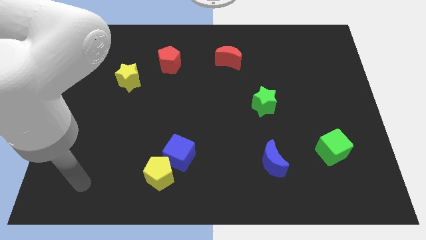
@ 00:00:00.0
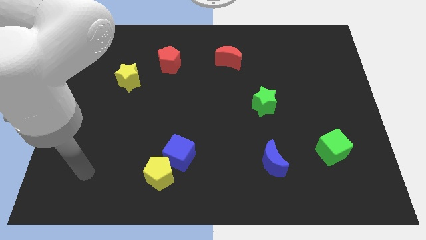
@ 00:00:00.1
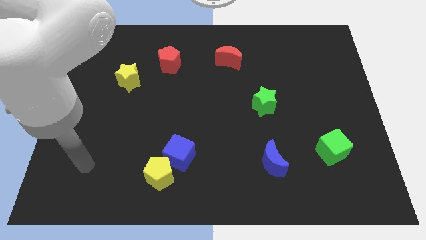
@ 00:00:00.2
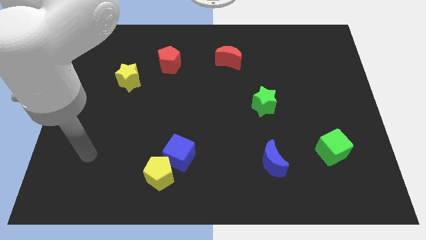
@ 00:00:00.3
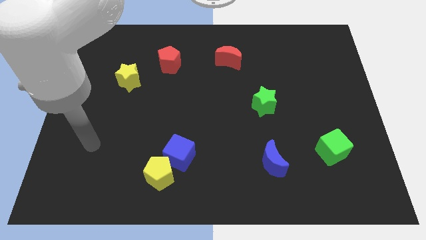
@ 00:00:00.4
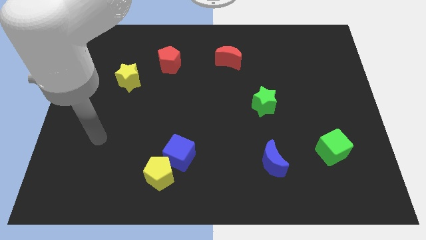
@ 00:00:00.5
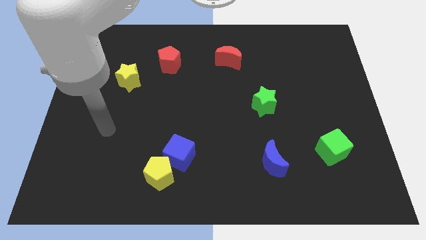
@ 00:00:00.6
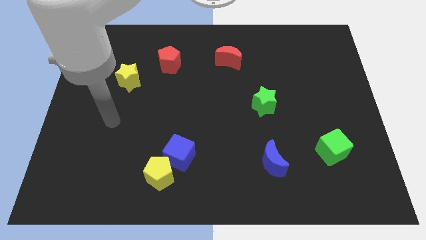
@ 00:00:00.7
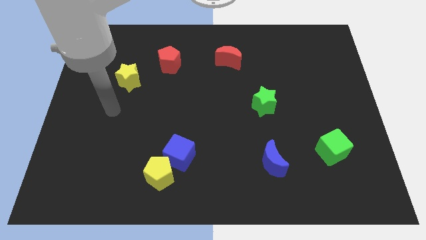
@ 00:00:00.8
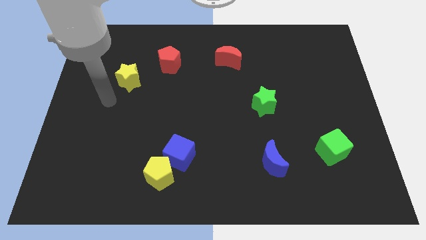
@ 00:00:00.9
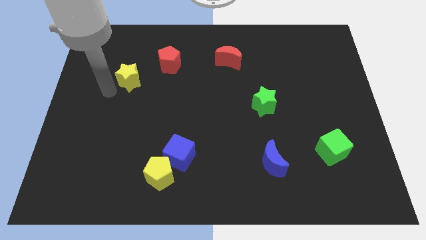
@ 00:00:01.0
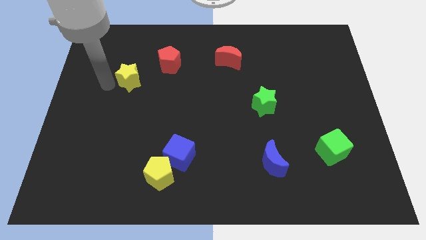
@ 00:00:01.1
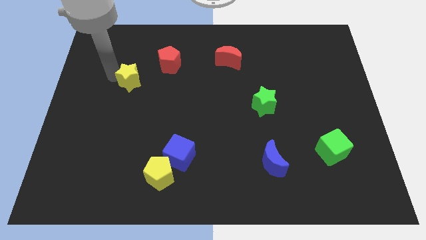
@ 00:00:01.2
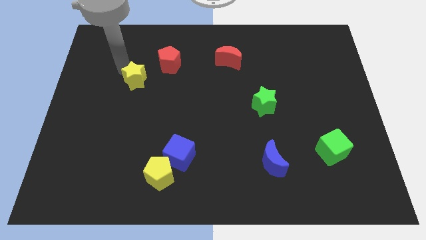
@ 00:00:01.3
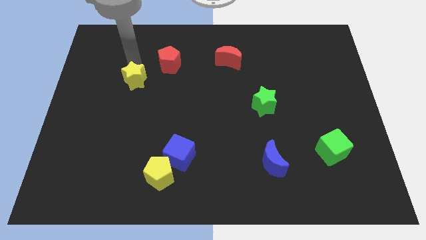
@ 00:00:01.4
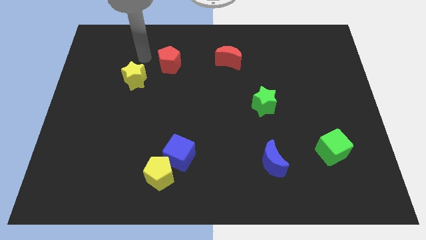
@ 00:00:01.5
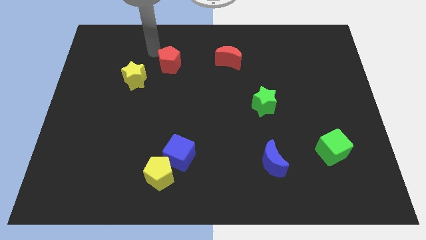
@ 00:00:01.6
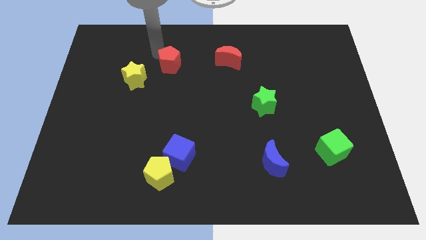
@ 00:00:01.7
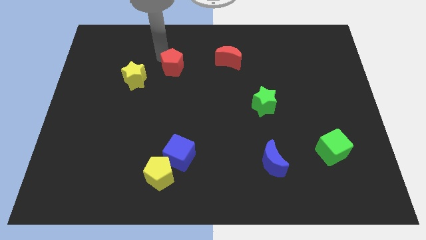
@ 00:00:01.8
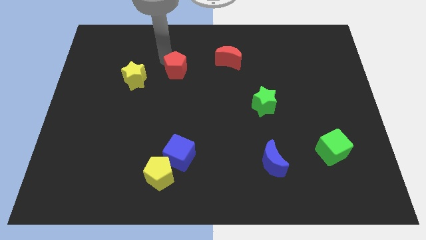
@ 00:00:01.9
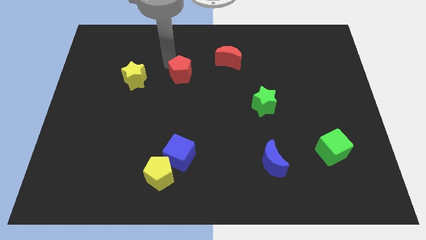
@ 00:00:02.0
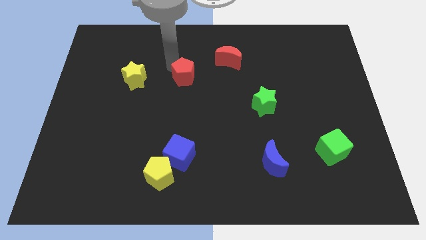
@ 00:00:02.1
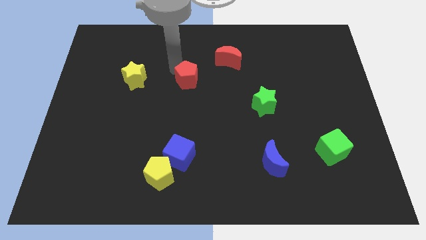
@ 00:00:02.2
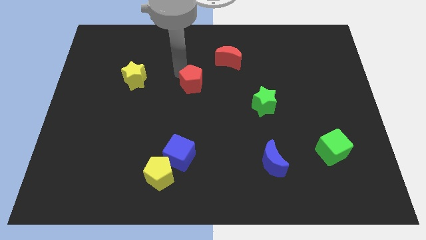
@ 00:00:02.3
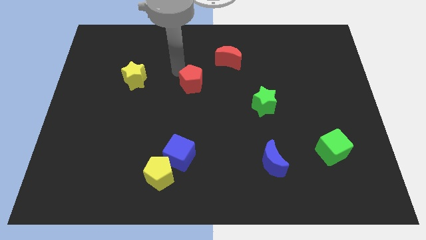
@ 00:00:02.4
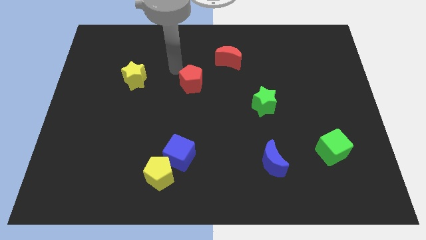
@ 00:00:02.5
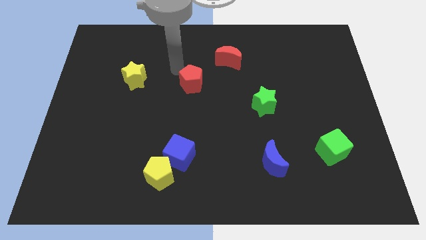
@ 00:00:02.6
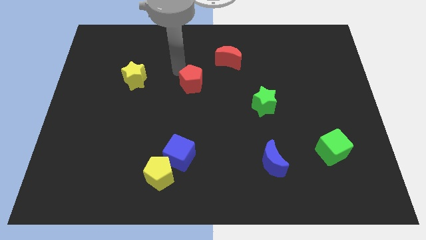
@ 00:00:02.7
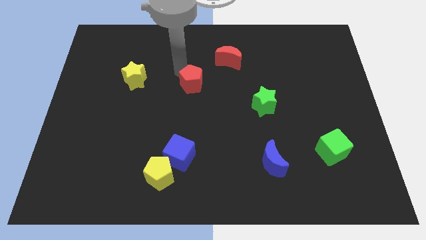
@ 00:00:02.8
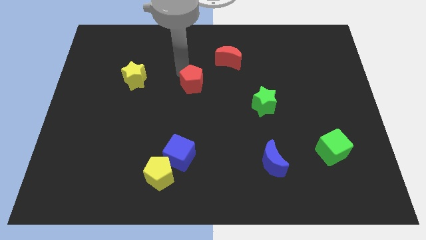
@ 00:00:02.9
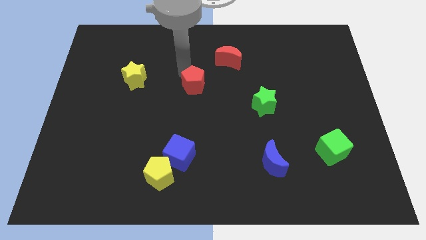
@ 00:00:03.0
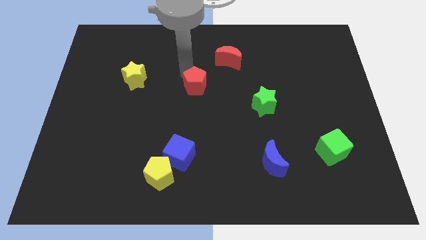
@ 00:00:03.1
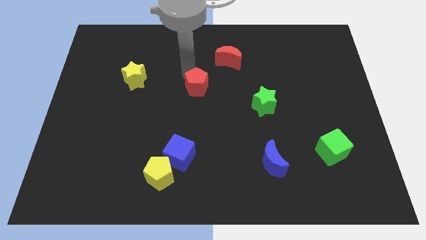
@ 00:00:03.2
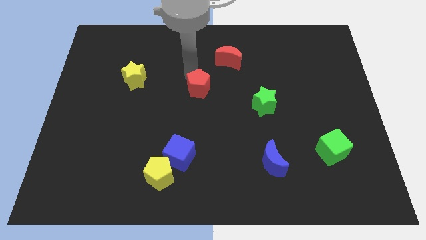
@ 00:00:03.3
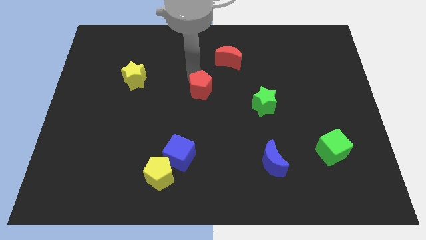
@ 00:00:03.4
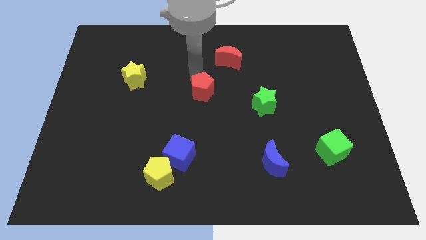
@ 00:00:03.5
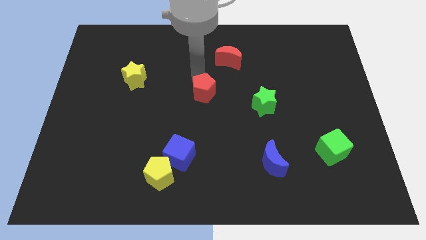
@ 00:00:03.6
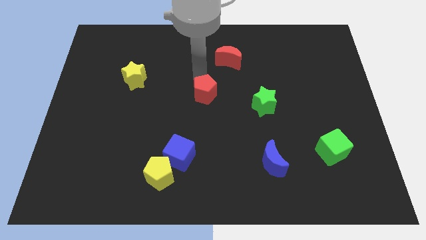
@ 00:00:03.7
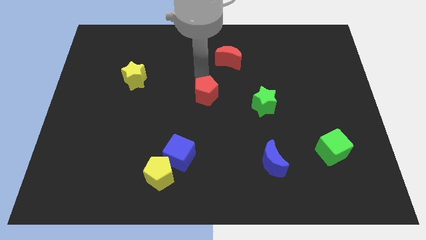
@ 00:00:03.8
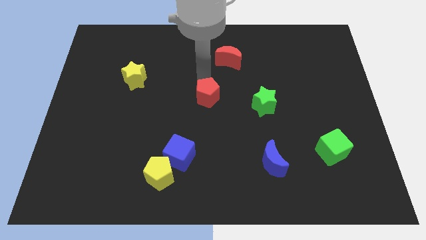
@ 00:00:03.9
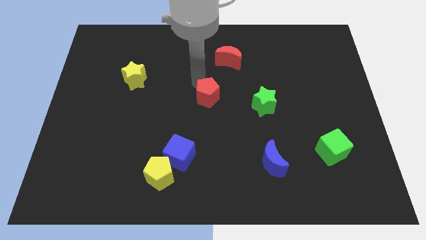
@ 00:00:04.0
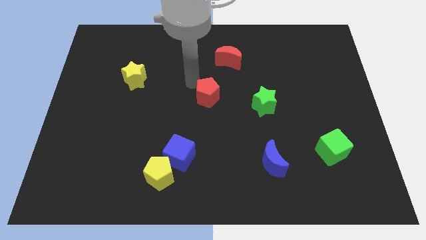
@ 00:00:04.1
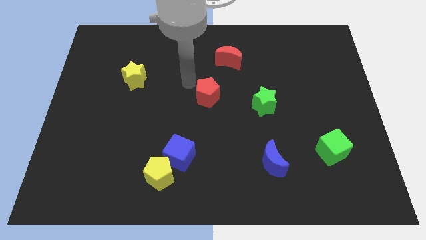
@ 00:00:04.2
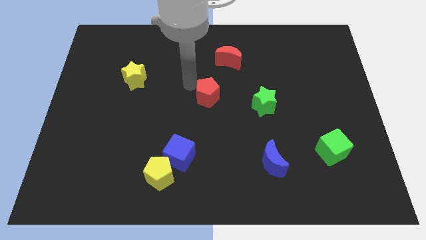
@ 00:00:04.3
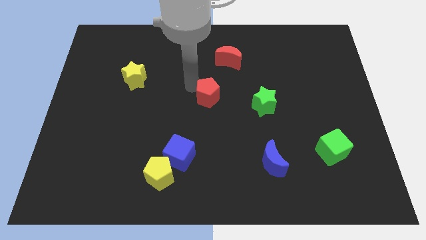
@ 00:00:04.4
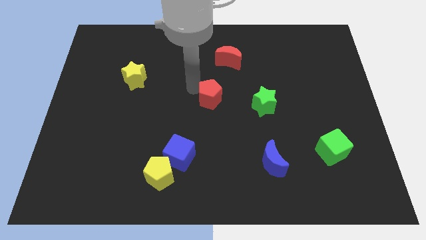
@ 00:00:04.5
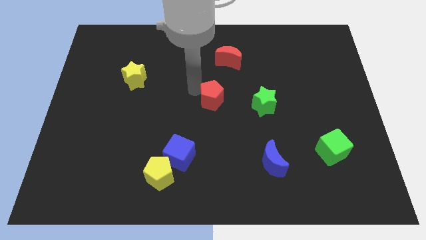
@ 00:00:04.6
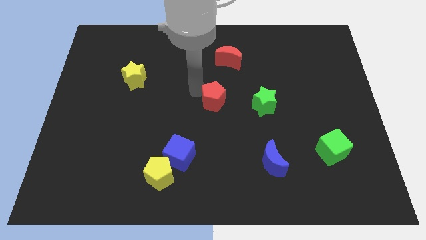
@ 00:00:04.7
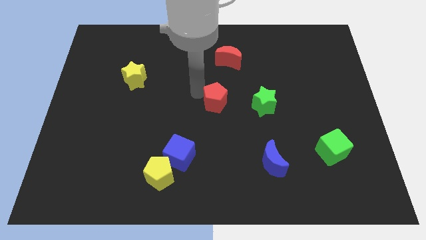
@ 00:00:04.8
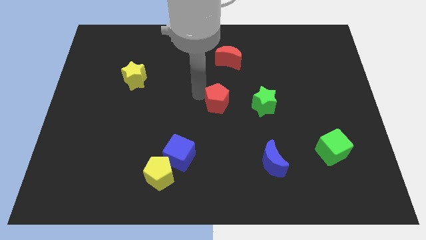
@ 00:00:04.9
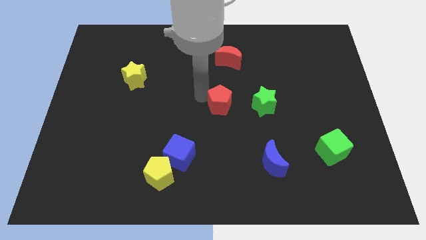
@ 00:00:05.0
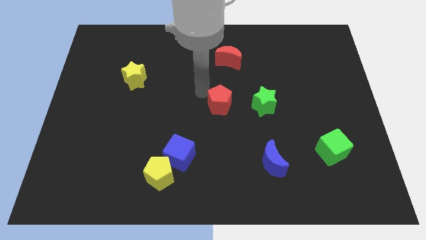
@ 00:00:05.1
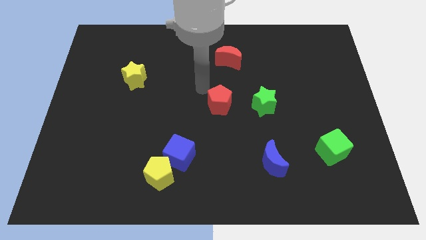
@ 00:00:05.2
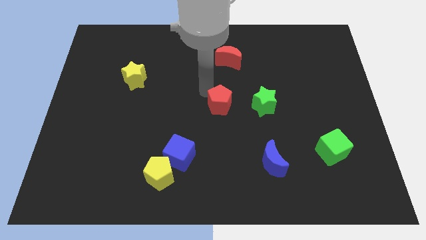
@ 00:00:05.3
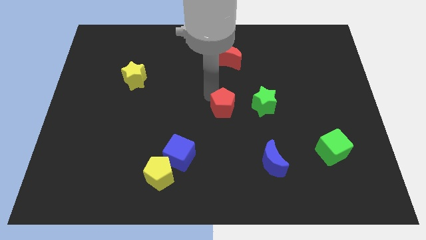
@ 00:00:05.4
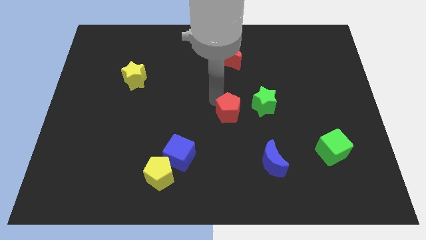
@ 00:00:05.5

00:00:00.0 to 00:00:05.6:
slide the red pentagon diagonally down and to the left of the green star

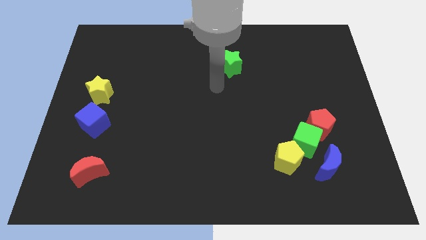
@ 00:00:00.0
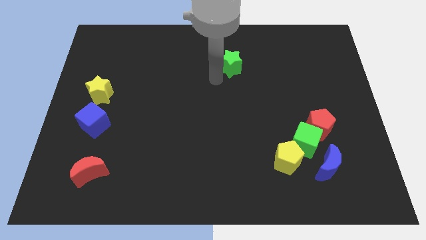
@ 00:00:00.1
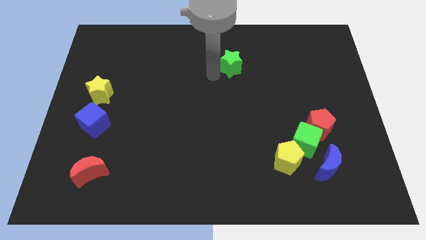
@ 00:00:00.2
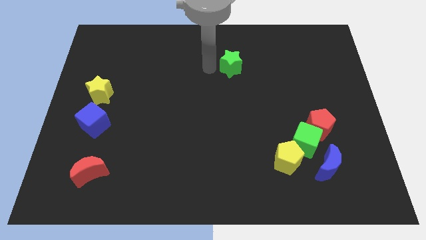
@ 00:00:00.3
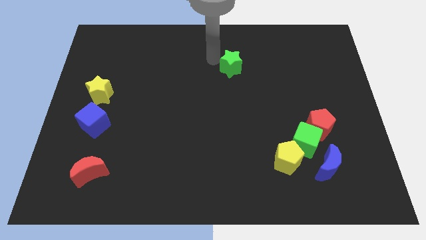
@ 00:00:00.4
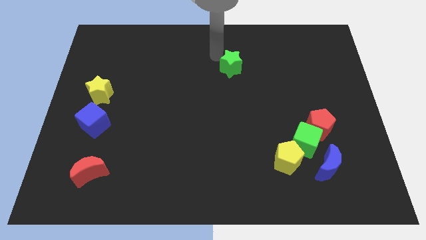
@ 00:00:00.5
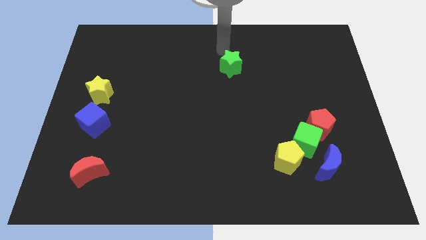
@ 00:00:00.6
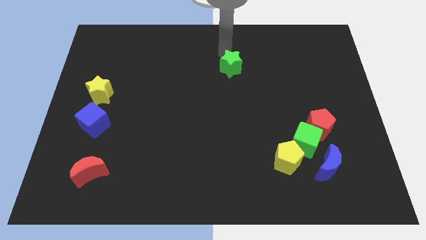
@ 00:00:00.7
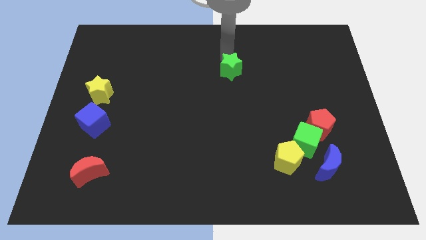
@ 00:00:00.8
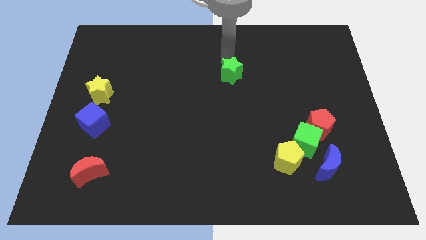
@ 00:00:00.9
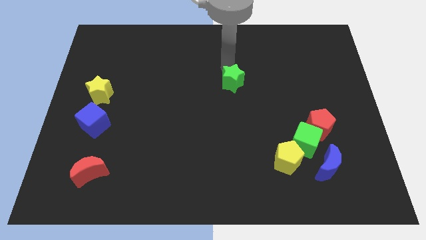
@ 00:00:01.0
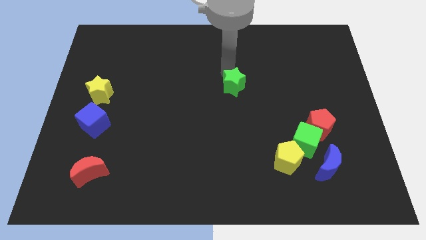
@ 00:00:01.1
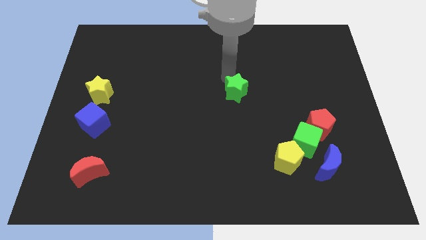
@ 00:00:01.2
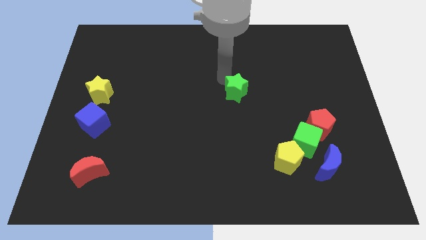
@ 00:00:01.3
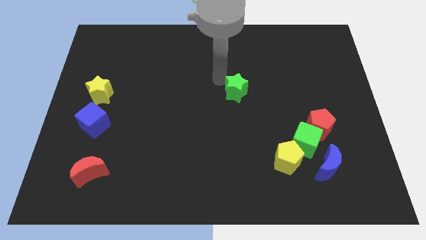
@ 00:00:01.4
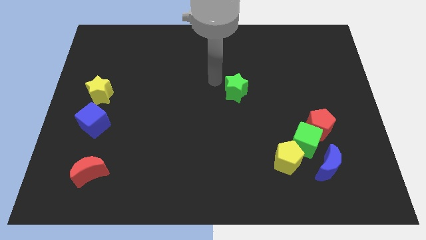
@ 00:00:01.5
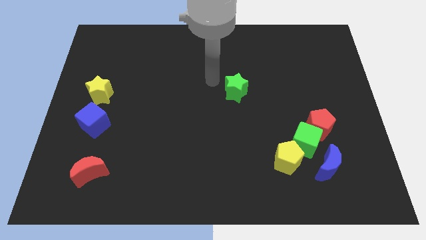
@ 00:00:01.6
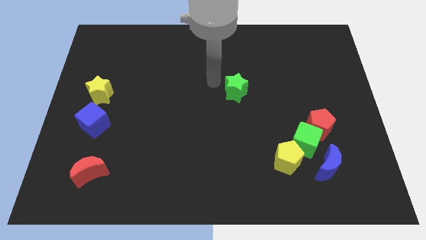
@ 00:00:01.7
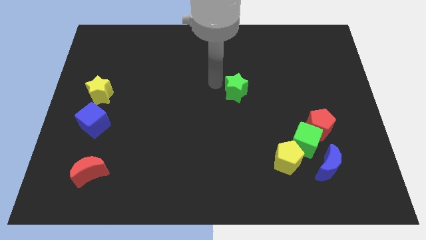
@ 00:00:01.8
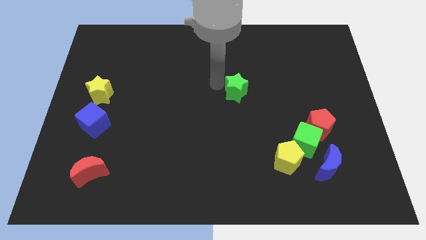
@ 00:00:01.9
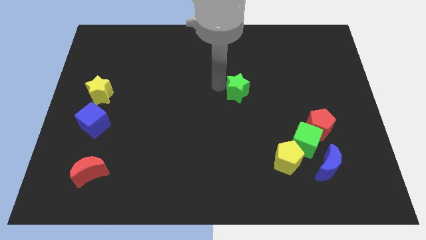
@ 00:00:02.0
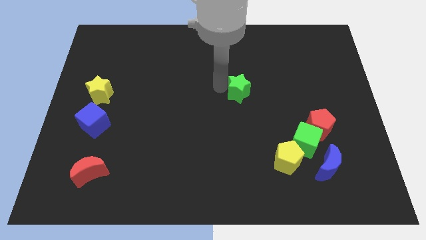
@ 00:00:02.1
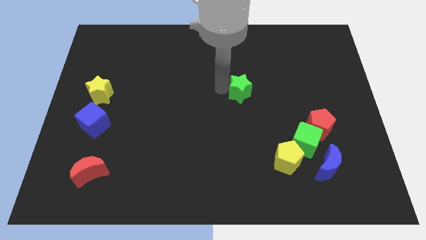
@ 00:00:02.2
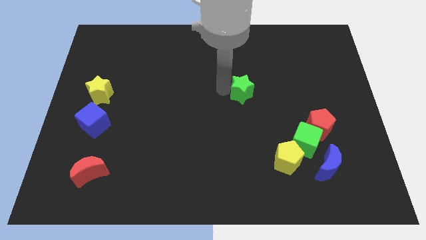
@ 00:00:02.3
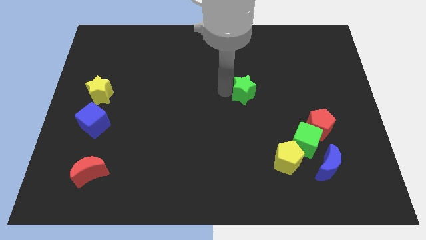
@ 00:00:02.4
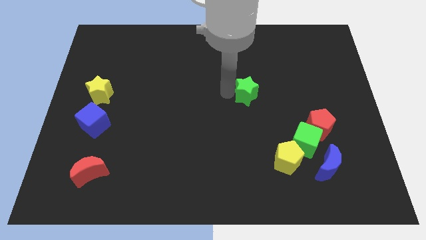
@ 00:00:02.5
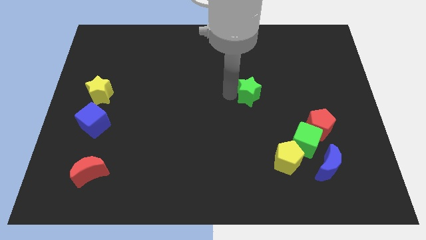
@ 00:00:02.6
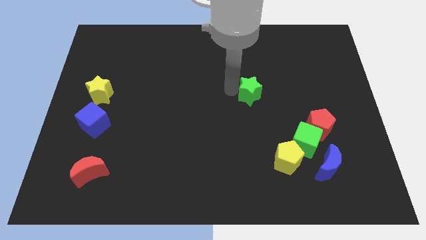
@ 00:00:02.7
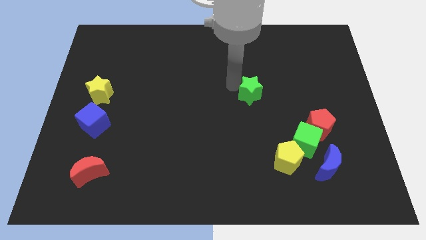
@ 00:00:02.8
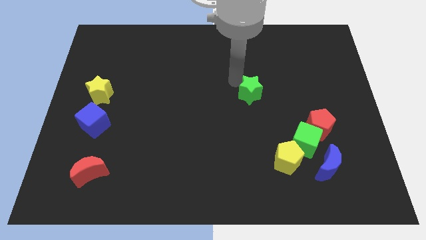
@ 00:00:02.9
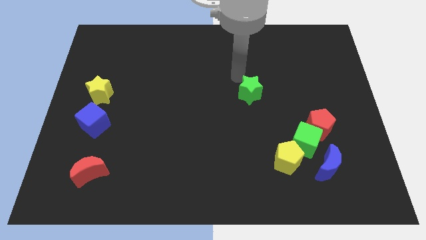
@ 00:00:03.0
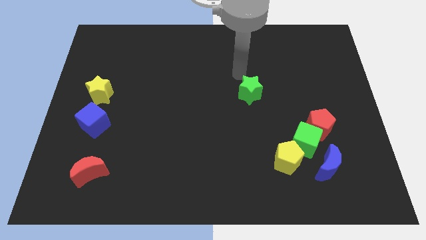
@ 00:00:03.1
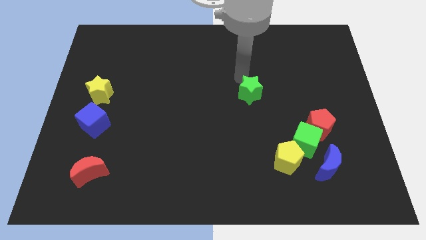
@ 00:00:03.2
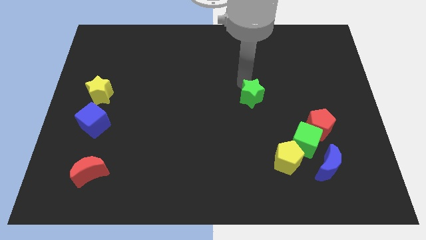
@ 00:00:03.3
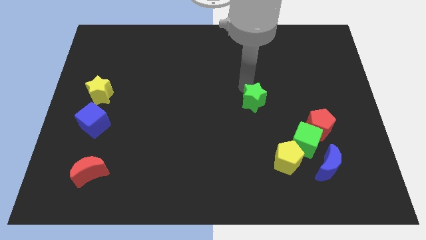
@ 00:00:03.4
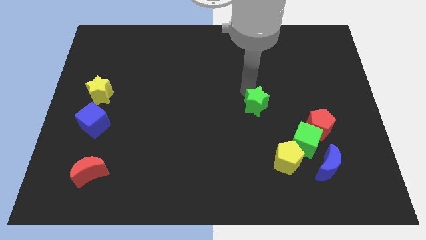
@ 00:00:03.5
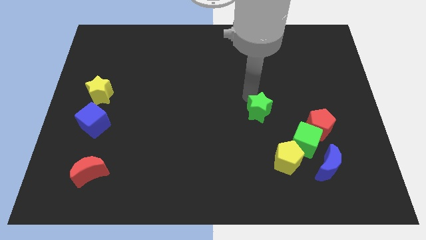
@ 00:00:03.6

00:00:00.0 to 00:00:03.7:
slide the green star to the left of the red pentagon
